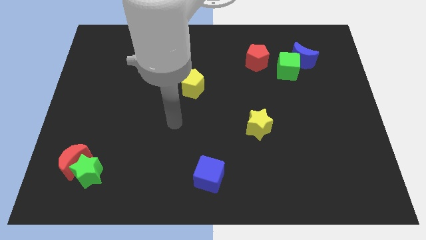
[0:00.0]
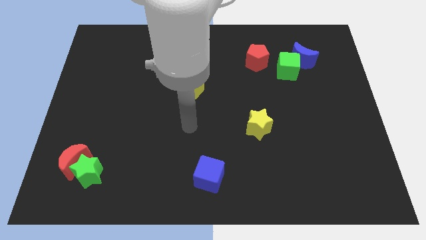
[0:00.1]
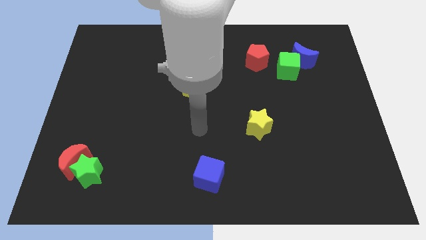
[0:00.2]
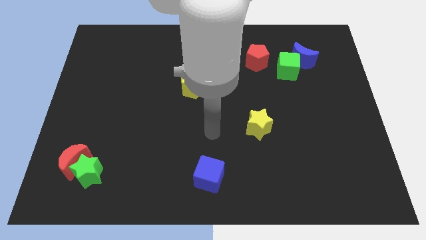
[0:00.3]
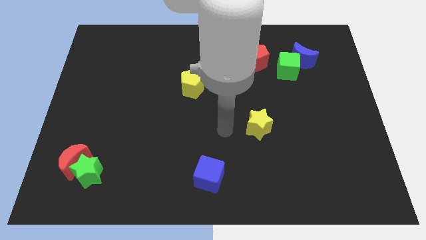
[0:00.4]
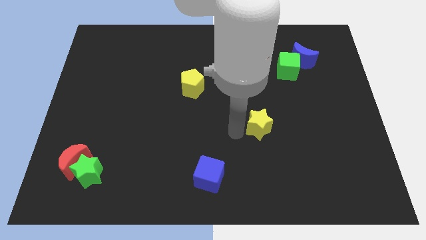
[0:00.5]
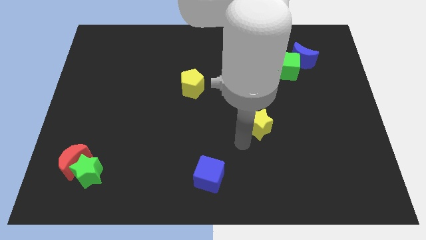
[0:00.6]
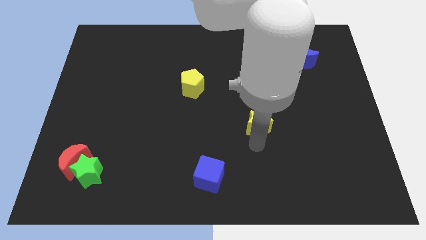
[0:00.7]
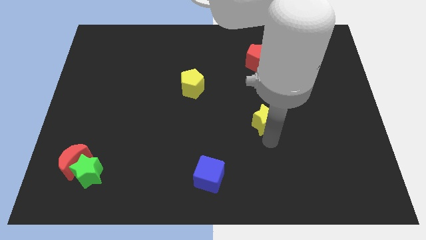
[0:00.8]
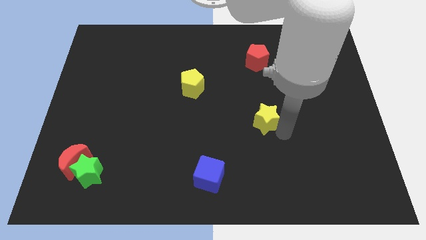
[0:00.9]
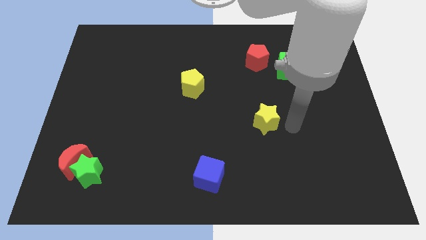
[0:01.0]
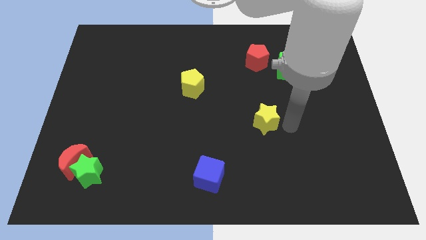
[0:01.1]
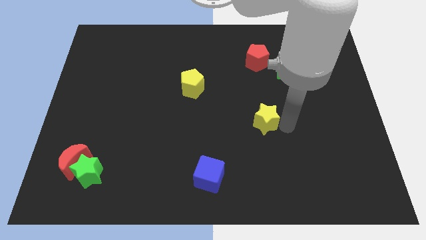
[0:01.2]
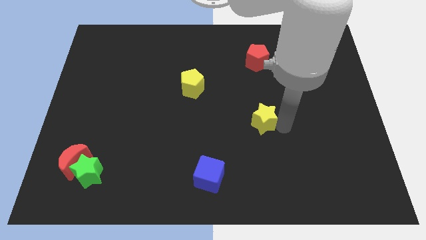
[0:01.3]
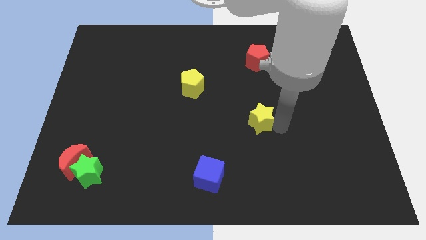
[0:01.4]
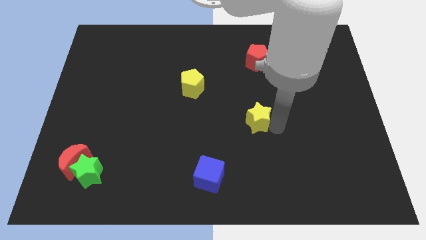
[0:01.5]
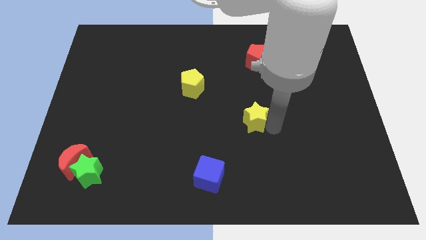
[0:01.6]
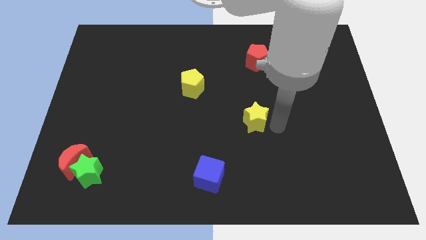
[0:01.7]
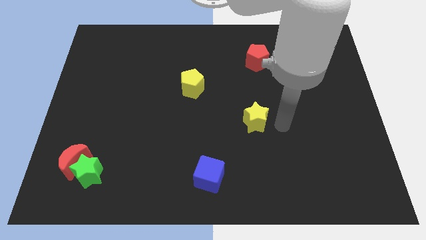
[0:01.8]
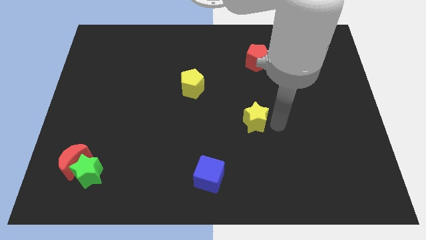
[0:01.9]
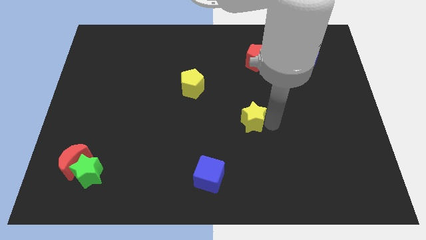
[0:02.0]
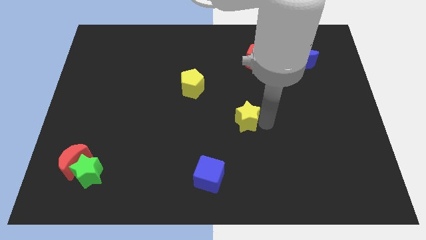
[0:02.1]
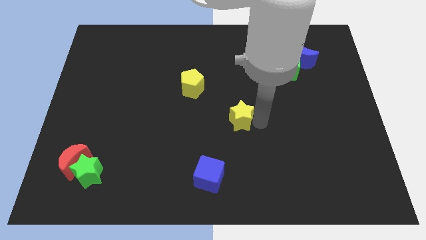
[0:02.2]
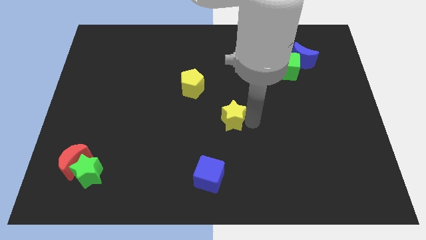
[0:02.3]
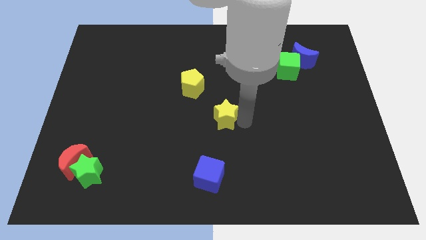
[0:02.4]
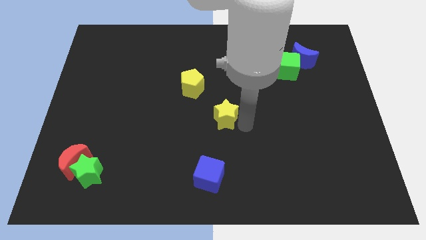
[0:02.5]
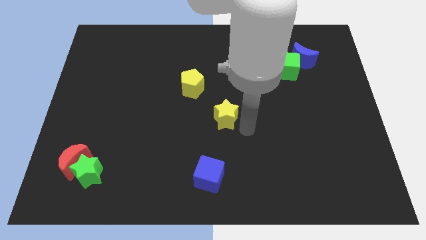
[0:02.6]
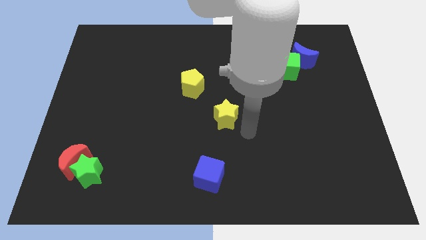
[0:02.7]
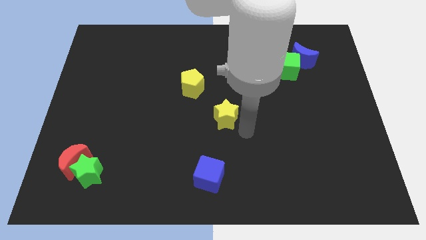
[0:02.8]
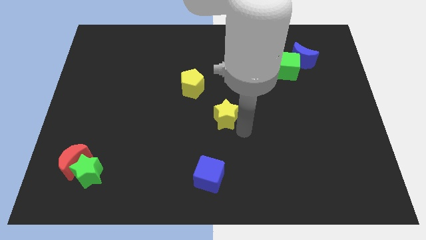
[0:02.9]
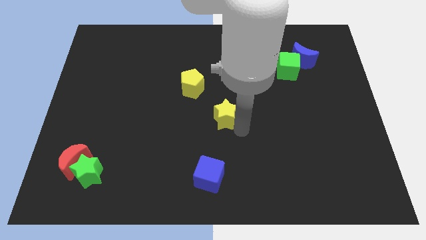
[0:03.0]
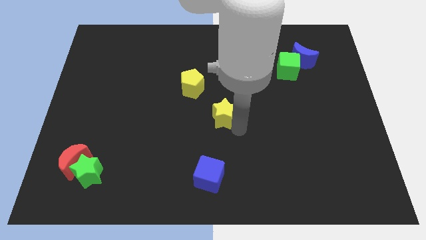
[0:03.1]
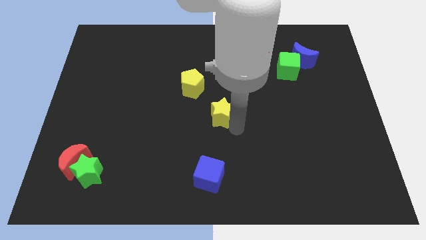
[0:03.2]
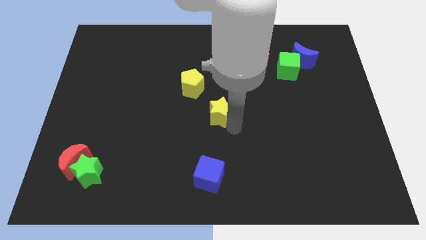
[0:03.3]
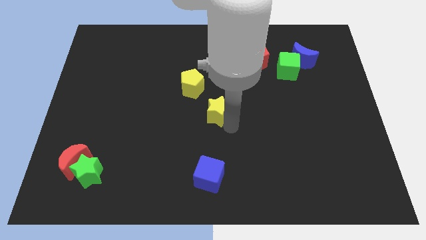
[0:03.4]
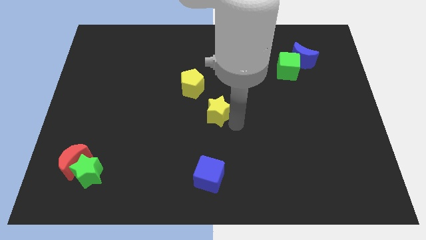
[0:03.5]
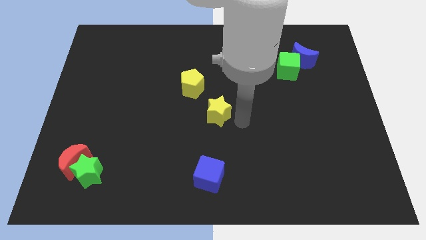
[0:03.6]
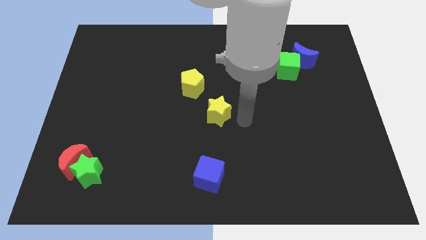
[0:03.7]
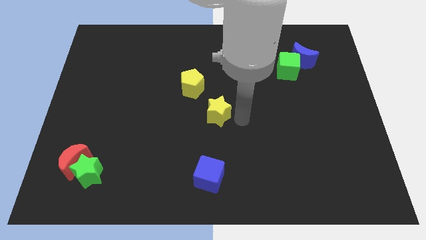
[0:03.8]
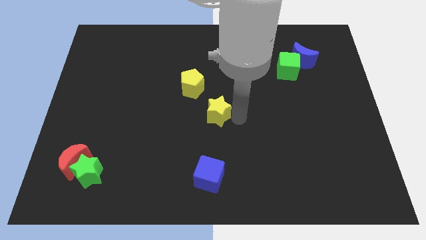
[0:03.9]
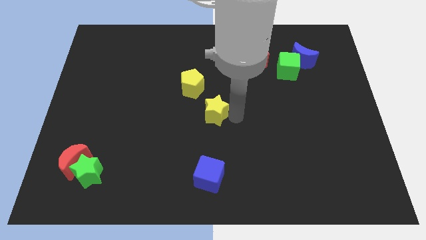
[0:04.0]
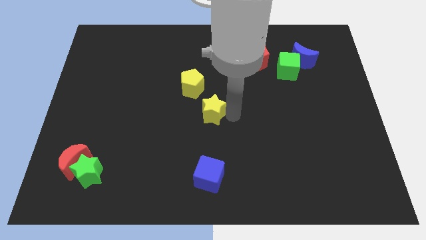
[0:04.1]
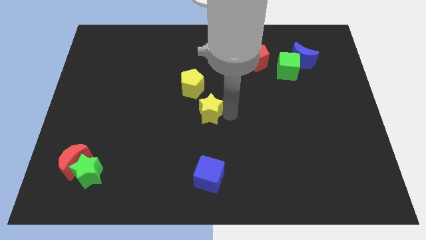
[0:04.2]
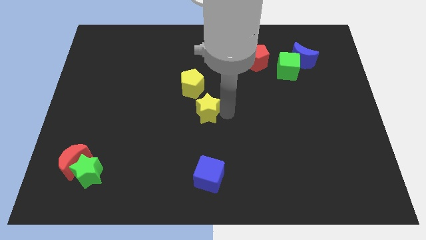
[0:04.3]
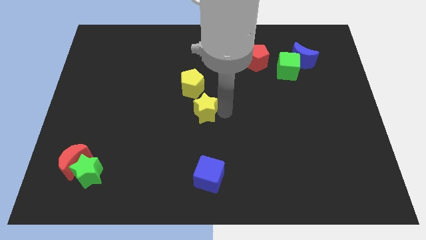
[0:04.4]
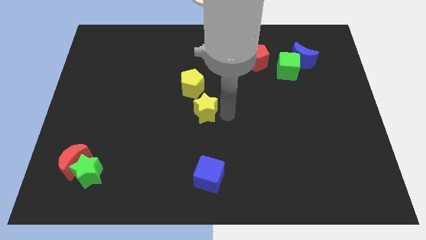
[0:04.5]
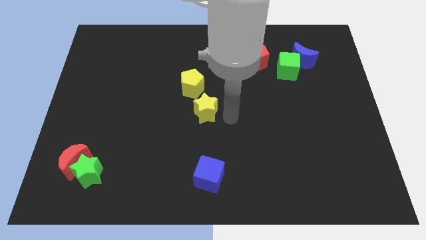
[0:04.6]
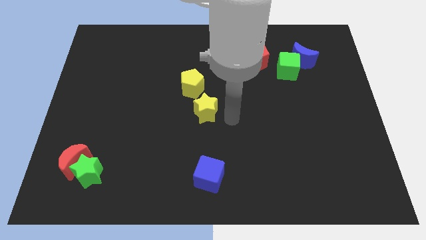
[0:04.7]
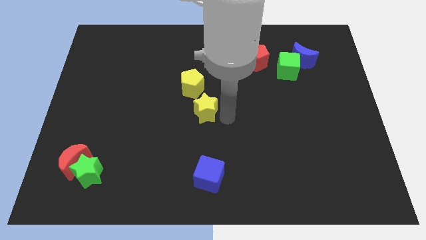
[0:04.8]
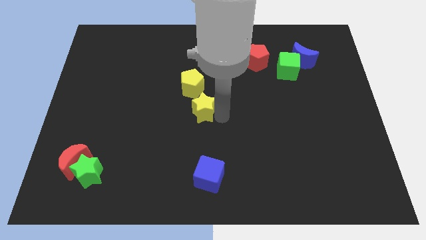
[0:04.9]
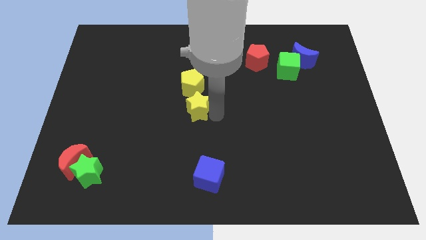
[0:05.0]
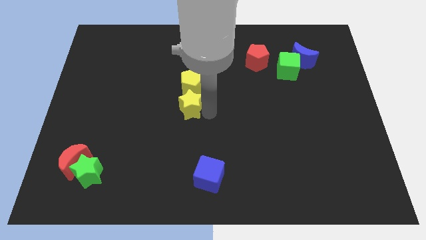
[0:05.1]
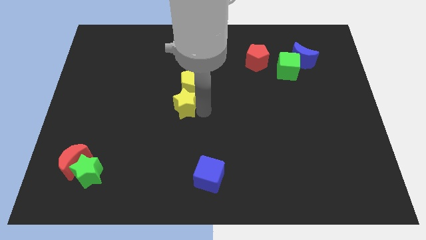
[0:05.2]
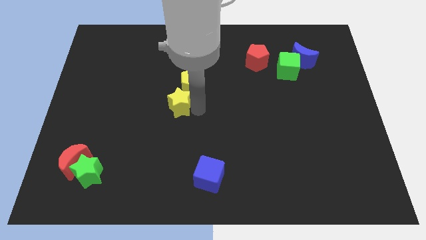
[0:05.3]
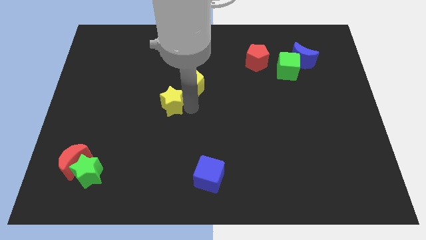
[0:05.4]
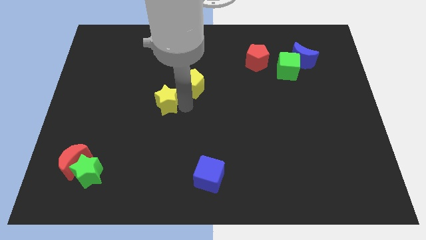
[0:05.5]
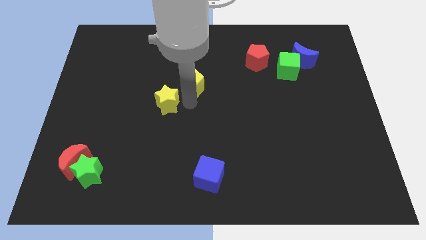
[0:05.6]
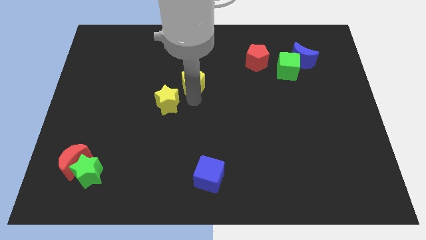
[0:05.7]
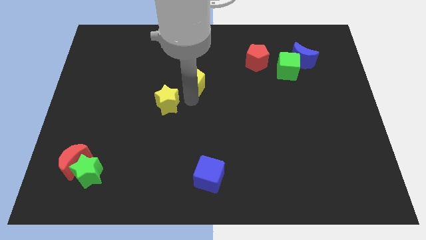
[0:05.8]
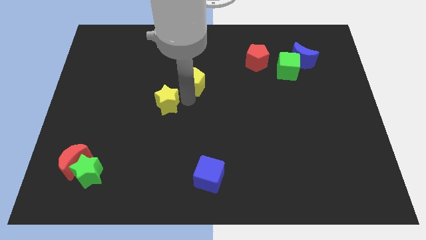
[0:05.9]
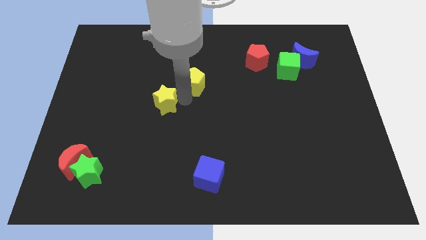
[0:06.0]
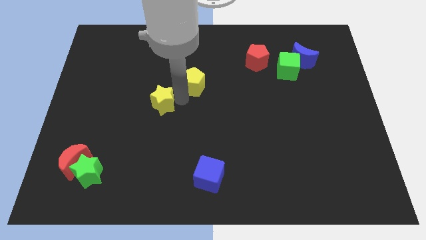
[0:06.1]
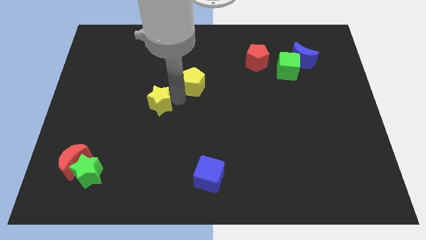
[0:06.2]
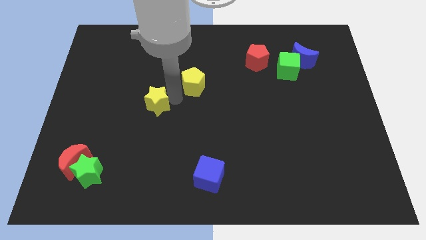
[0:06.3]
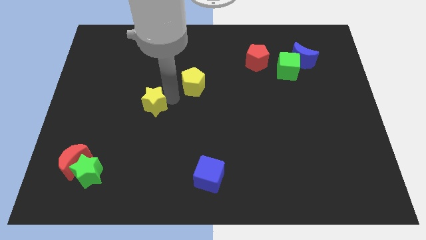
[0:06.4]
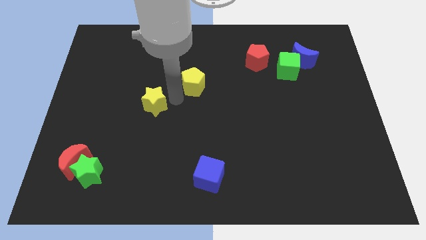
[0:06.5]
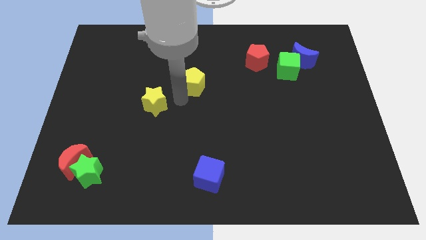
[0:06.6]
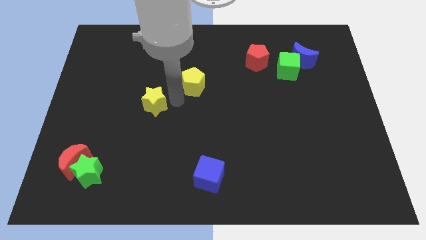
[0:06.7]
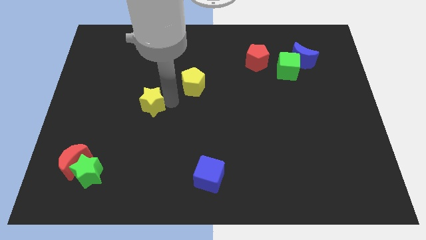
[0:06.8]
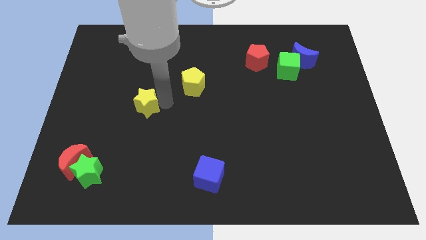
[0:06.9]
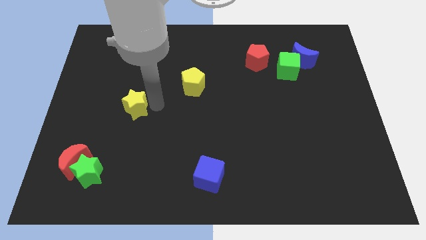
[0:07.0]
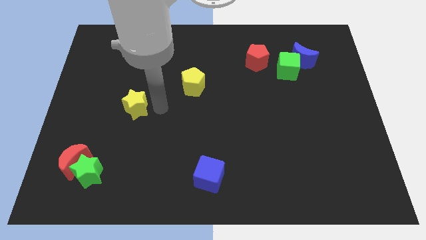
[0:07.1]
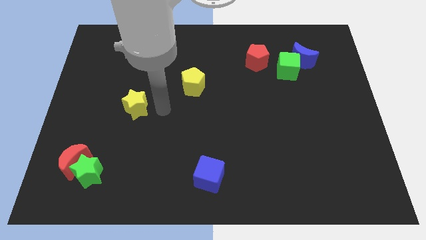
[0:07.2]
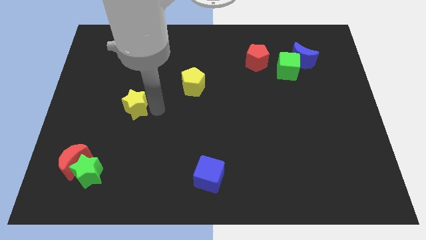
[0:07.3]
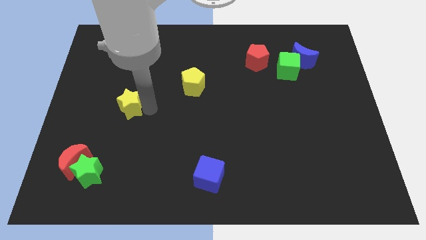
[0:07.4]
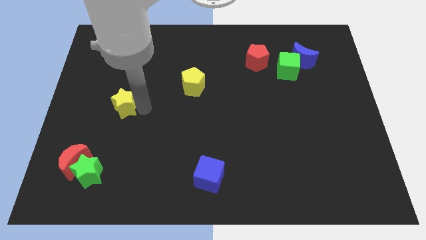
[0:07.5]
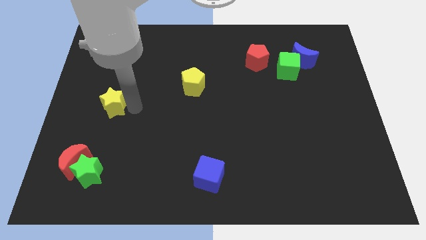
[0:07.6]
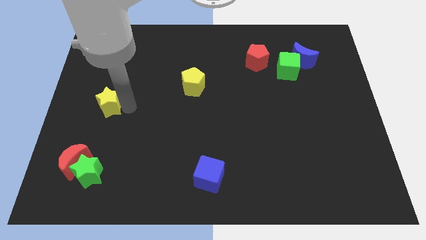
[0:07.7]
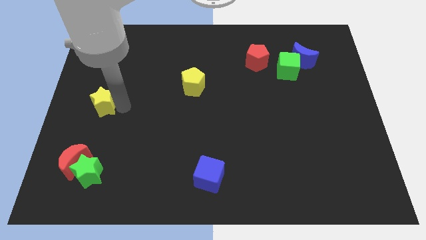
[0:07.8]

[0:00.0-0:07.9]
push the yellow star to the left side of the board
